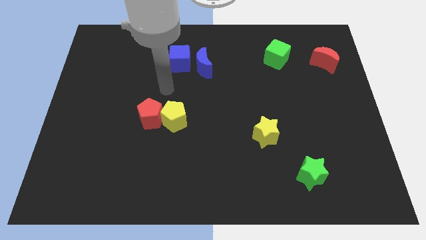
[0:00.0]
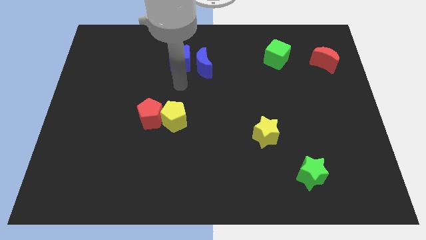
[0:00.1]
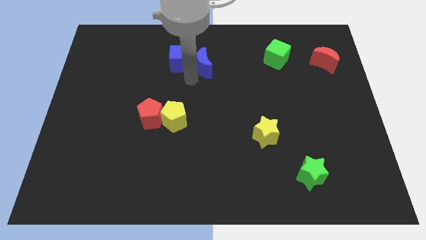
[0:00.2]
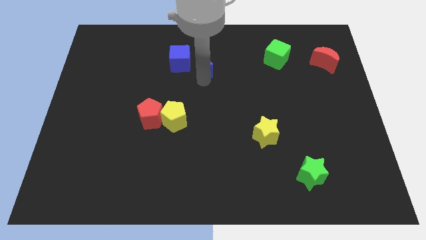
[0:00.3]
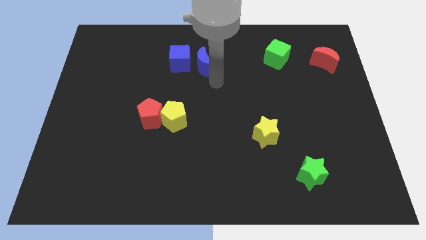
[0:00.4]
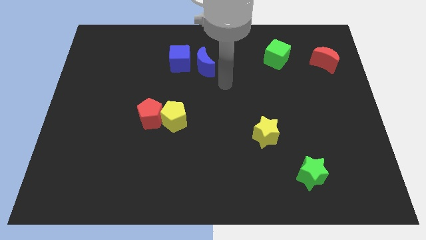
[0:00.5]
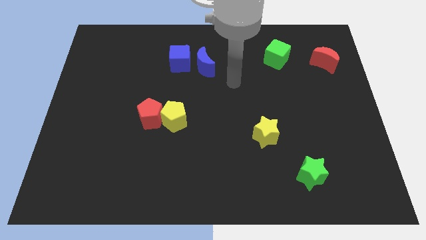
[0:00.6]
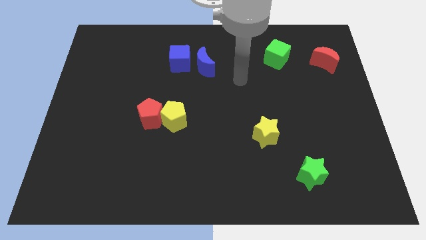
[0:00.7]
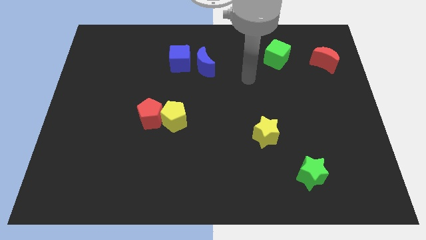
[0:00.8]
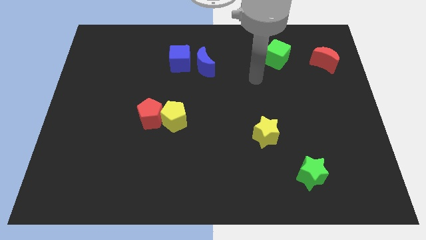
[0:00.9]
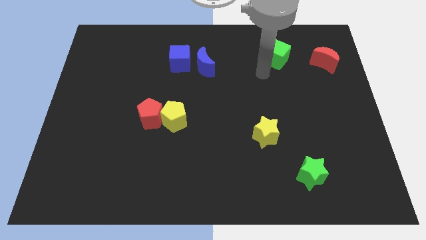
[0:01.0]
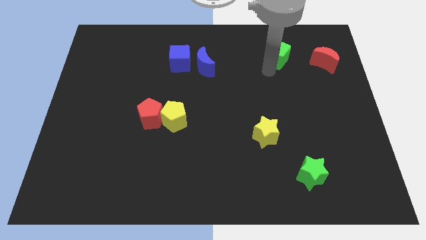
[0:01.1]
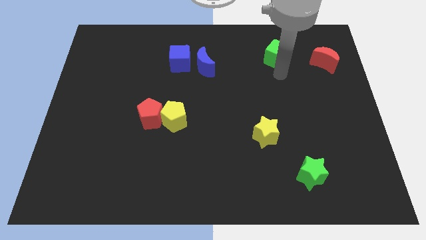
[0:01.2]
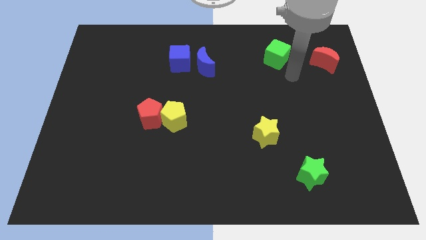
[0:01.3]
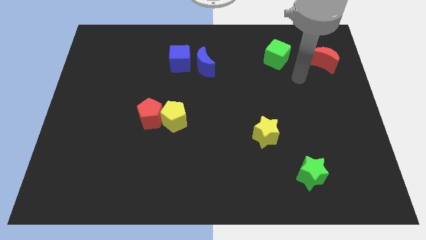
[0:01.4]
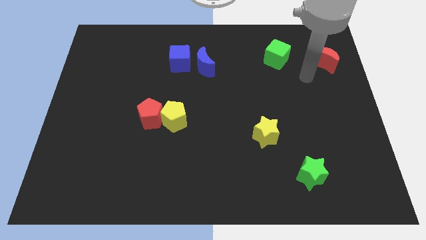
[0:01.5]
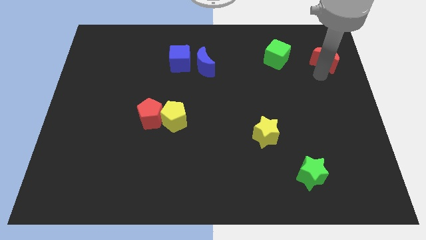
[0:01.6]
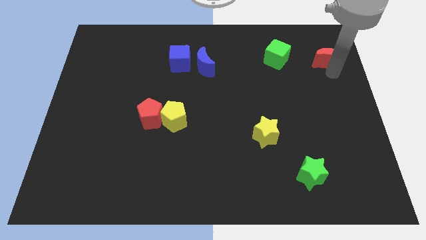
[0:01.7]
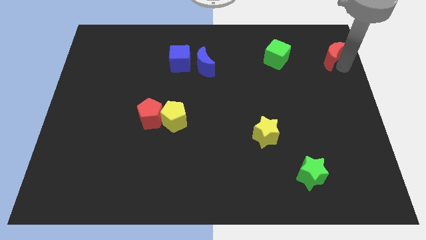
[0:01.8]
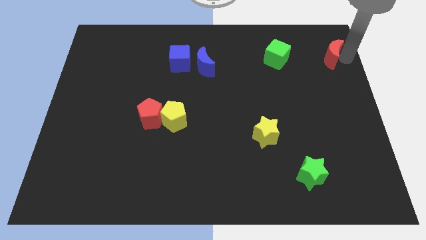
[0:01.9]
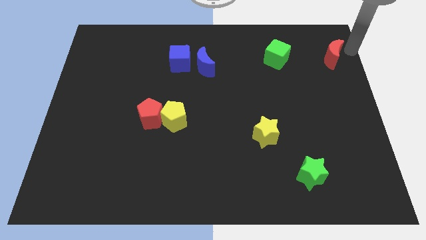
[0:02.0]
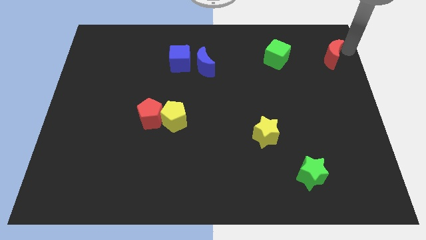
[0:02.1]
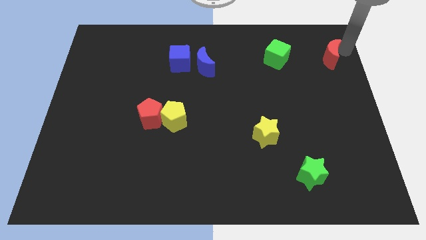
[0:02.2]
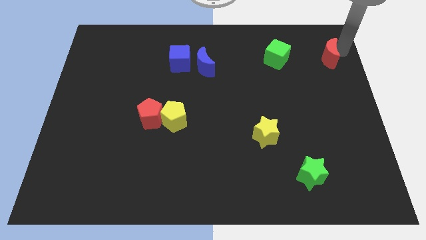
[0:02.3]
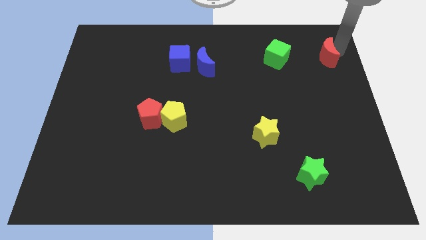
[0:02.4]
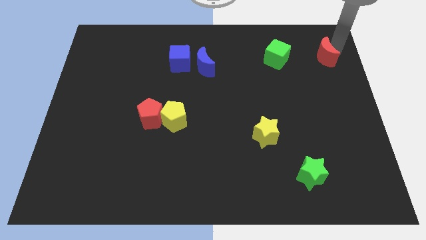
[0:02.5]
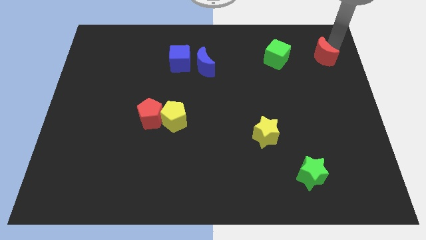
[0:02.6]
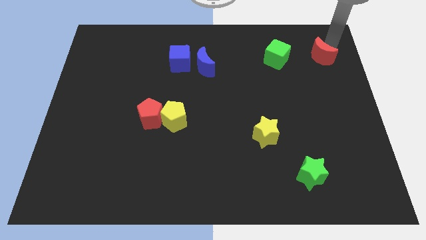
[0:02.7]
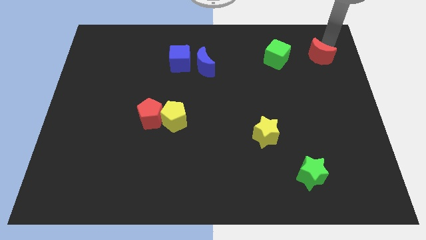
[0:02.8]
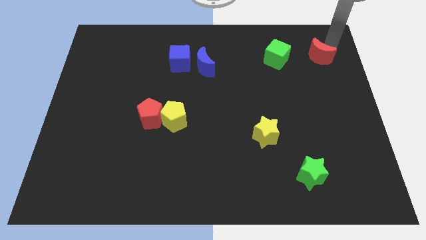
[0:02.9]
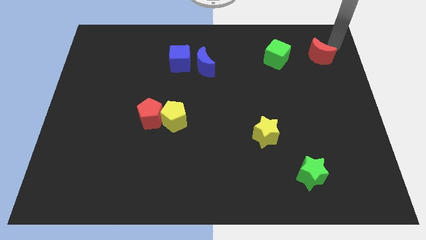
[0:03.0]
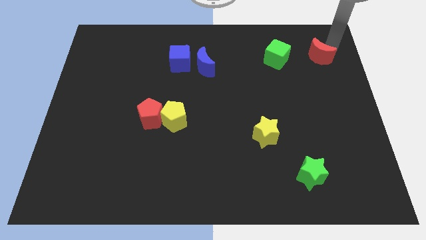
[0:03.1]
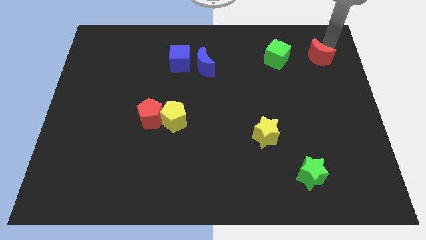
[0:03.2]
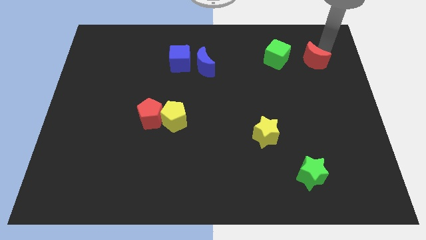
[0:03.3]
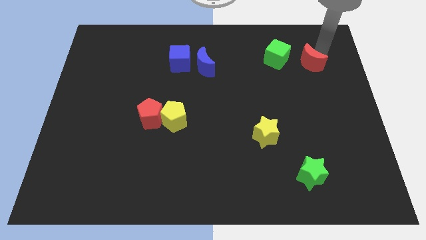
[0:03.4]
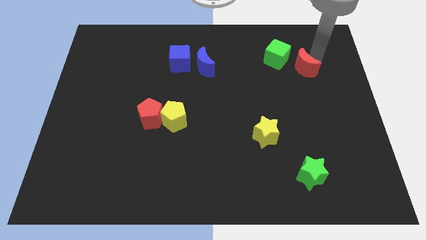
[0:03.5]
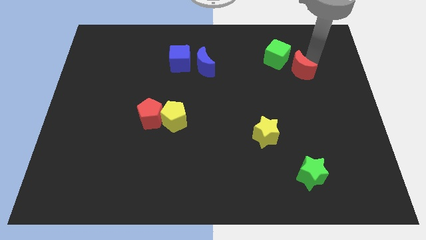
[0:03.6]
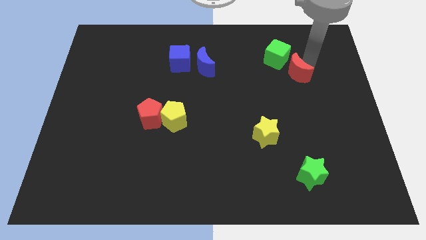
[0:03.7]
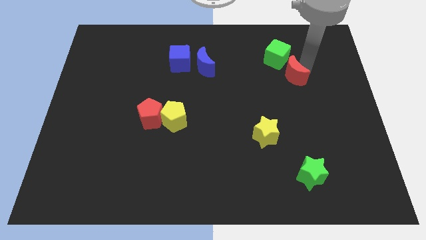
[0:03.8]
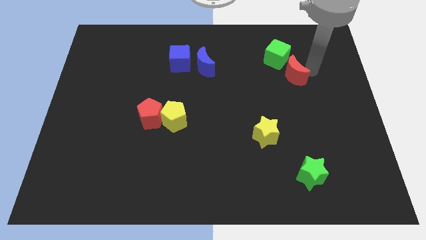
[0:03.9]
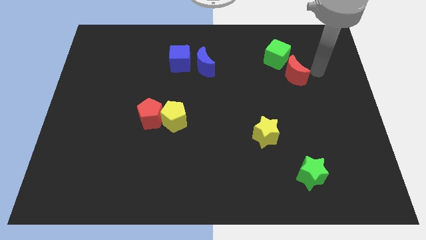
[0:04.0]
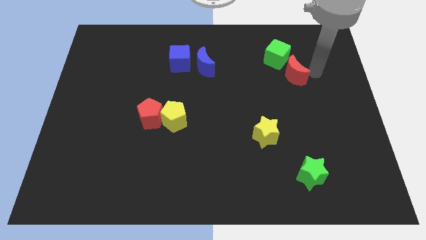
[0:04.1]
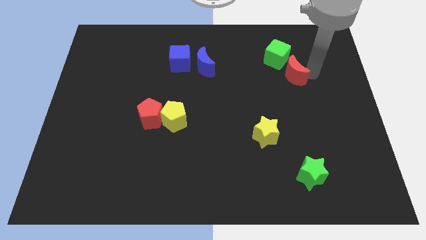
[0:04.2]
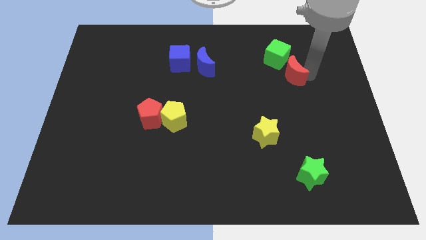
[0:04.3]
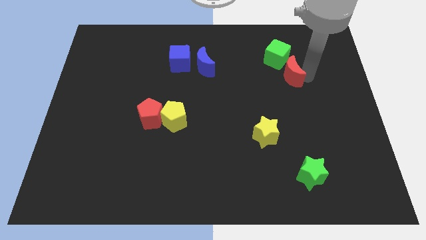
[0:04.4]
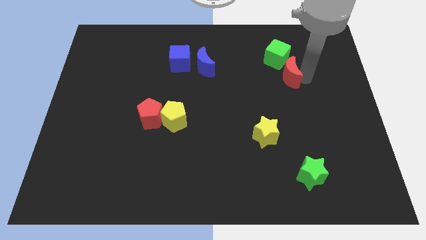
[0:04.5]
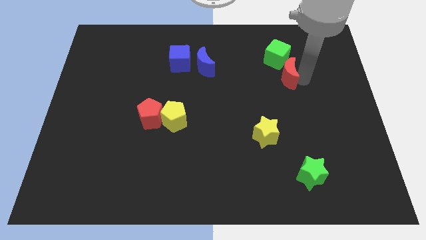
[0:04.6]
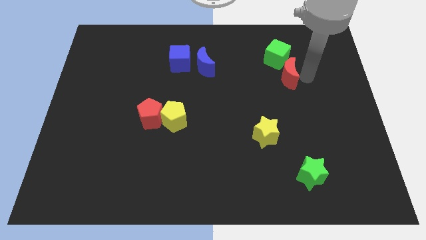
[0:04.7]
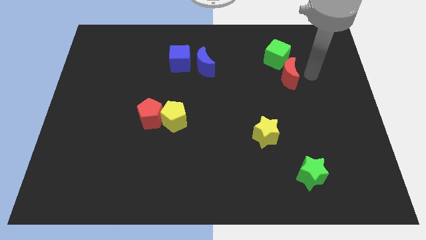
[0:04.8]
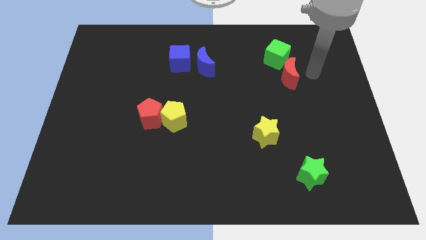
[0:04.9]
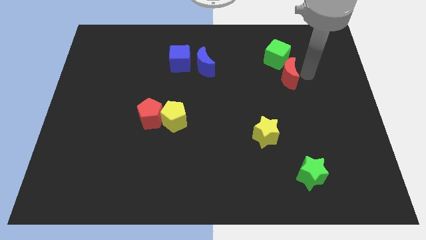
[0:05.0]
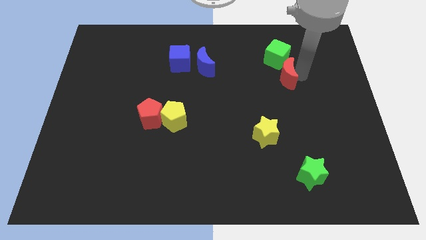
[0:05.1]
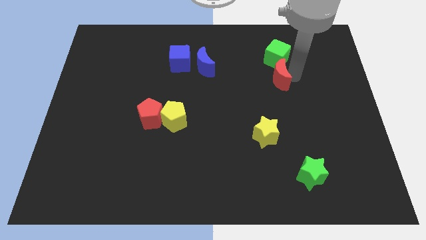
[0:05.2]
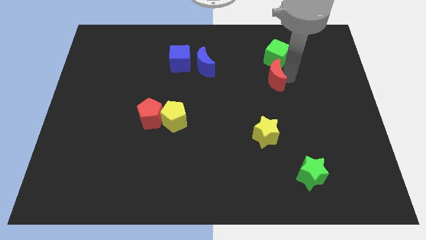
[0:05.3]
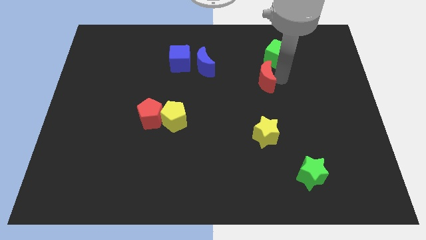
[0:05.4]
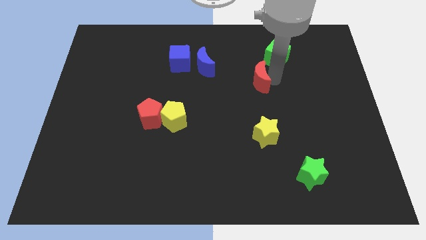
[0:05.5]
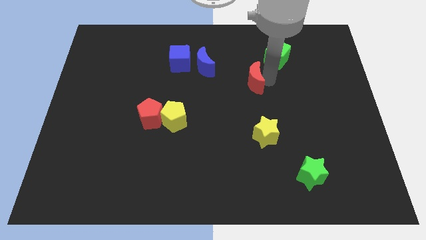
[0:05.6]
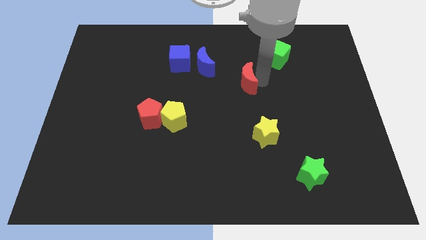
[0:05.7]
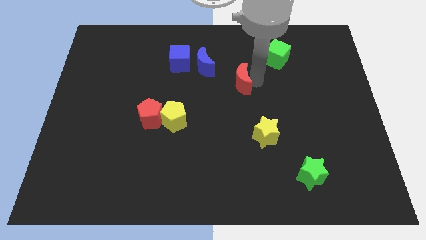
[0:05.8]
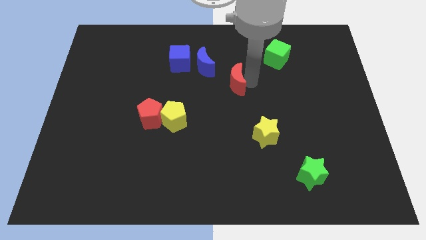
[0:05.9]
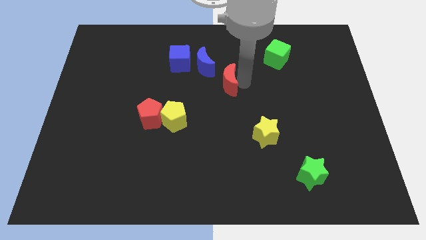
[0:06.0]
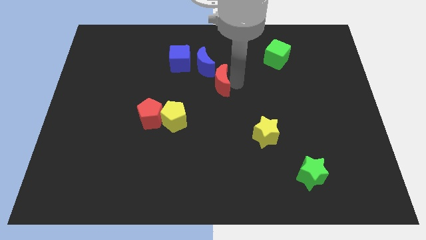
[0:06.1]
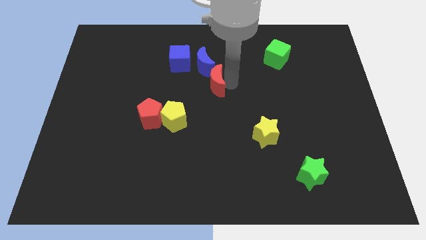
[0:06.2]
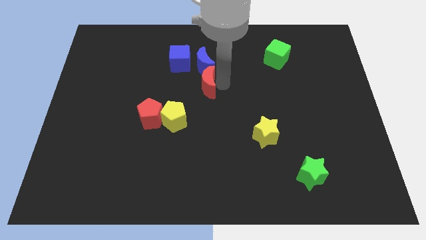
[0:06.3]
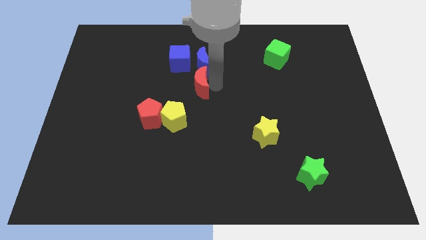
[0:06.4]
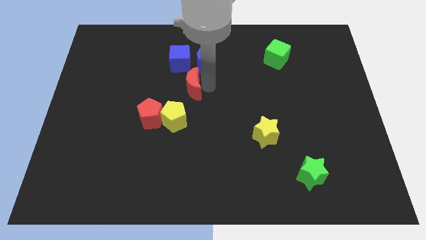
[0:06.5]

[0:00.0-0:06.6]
push the red moon above the yellow pentagon
